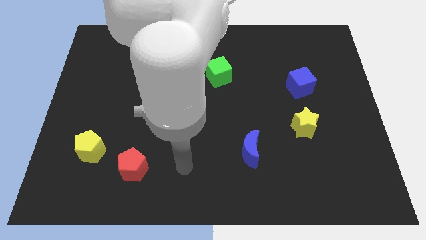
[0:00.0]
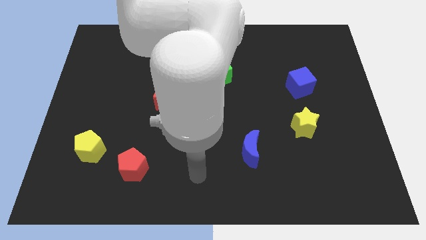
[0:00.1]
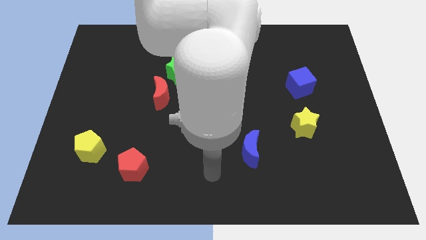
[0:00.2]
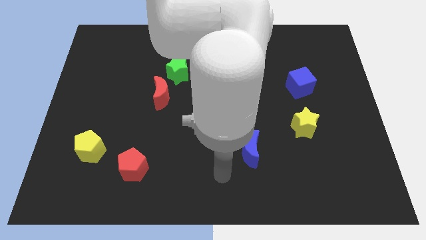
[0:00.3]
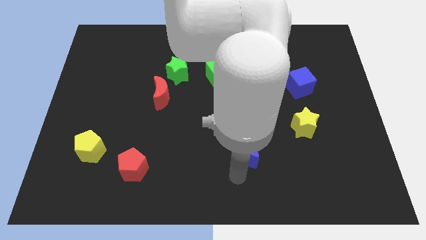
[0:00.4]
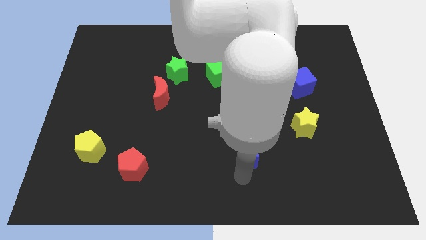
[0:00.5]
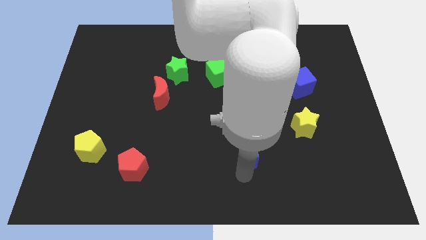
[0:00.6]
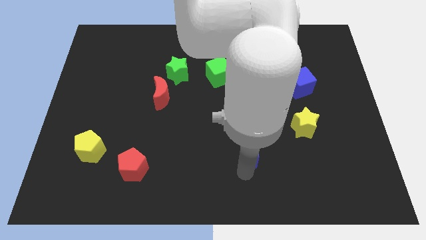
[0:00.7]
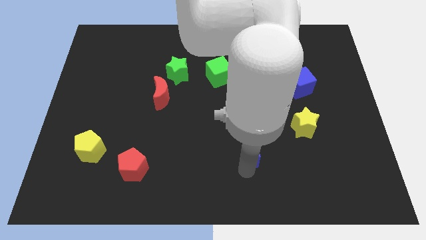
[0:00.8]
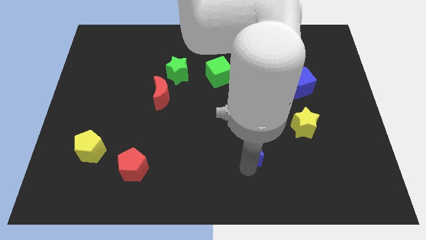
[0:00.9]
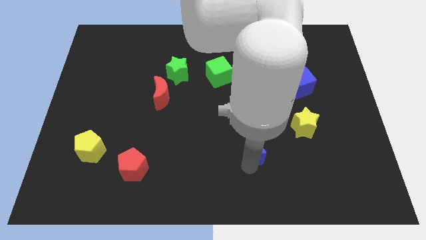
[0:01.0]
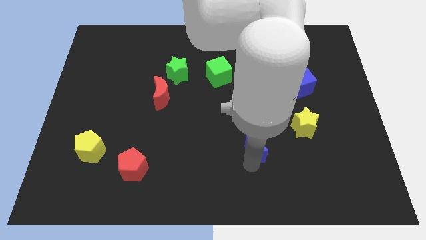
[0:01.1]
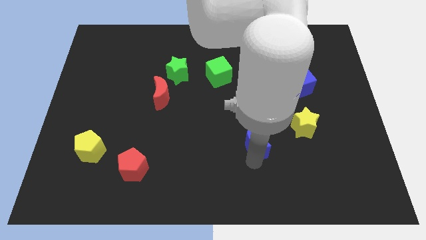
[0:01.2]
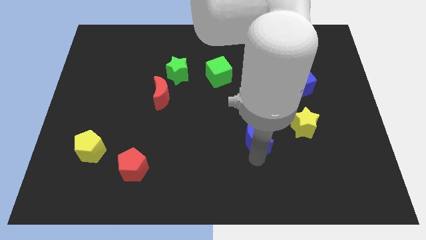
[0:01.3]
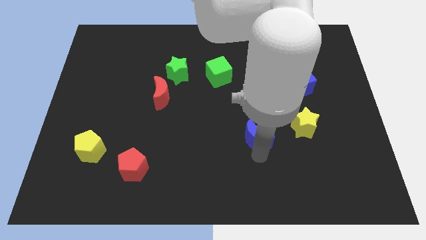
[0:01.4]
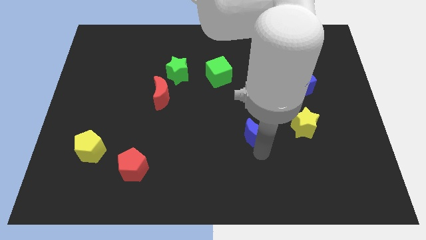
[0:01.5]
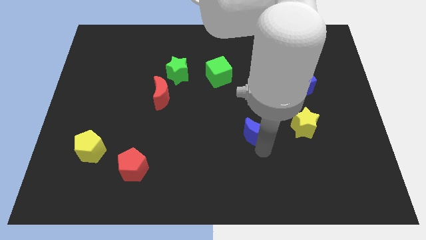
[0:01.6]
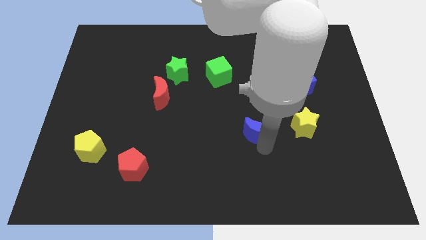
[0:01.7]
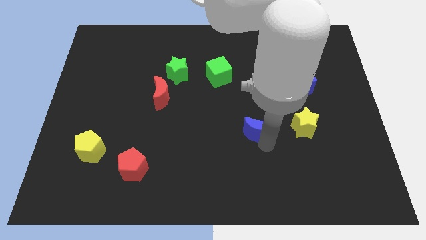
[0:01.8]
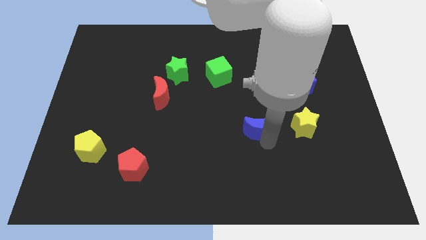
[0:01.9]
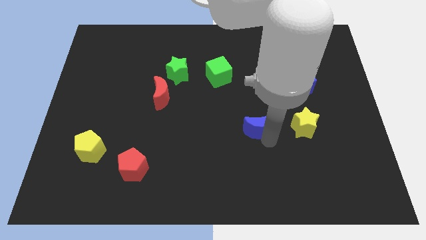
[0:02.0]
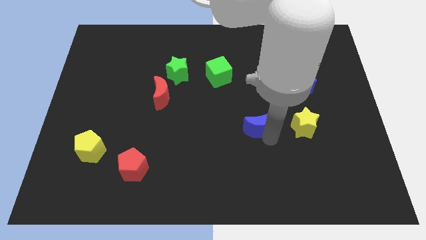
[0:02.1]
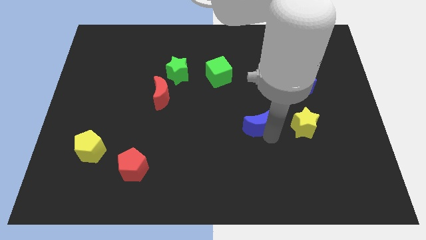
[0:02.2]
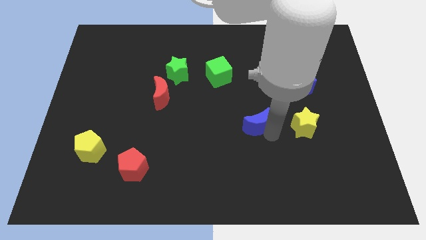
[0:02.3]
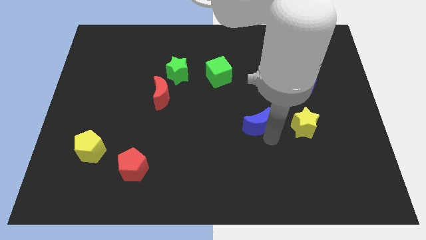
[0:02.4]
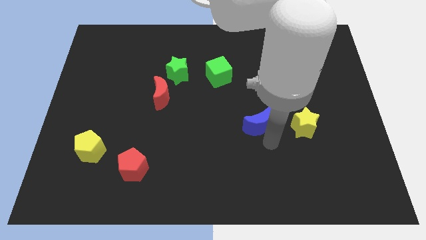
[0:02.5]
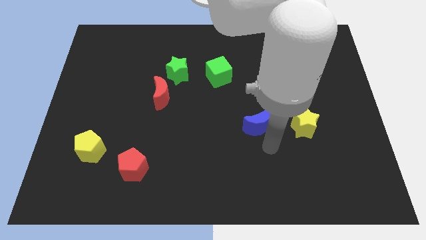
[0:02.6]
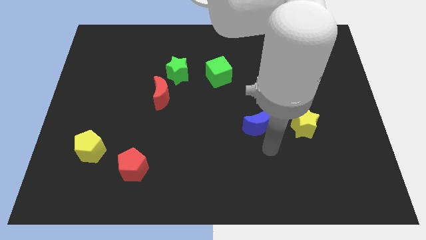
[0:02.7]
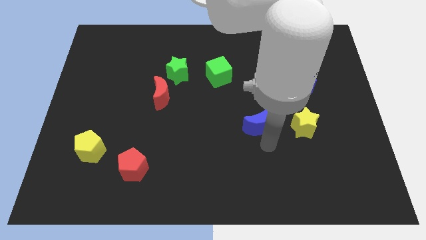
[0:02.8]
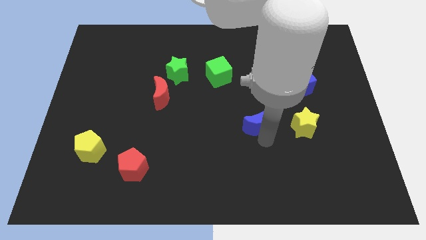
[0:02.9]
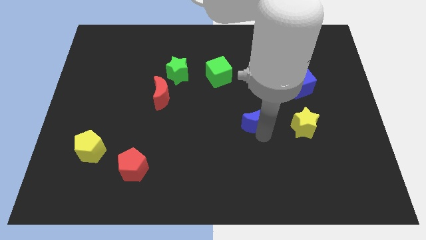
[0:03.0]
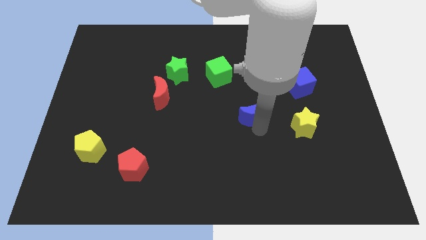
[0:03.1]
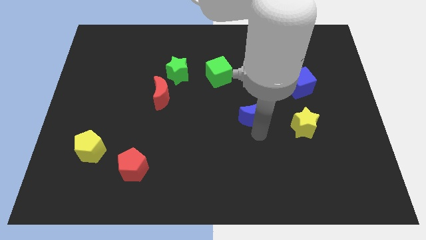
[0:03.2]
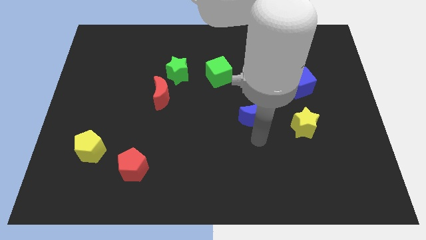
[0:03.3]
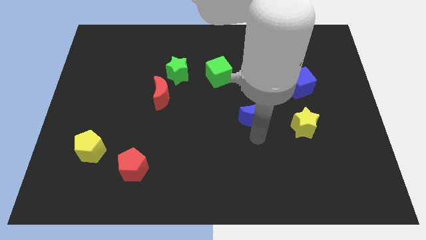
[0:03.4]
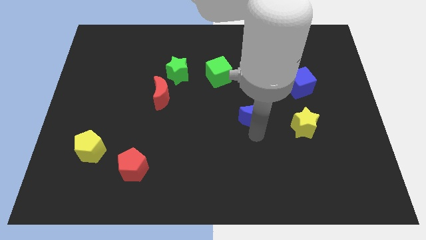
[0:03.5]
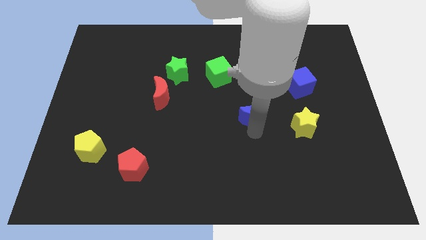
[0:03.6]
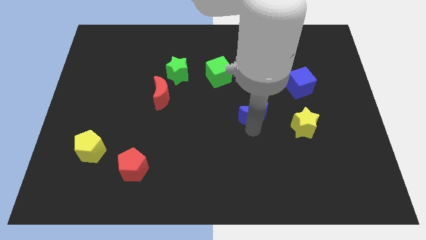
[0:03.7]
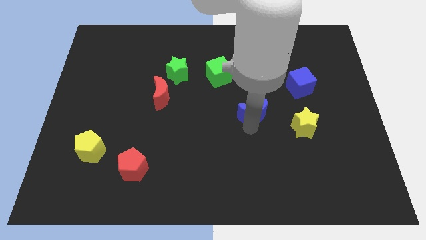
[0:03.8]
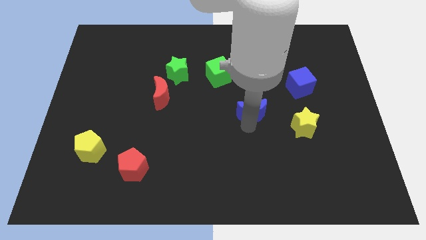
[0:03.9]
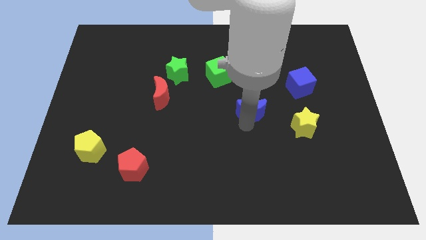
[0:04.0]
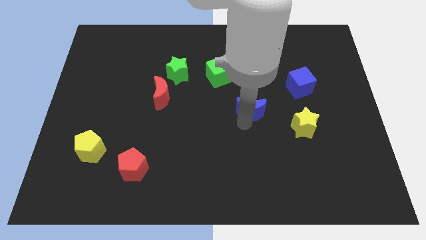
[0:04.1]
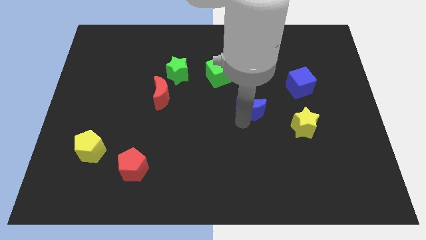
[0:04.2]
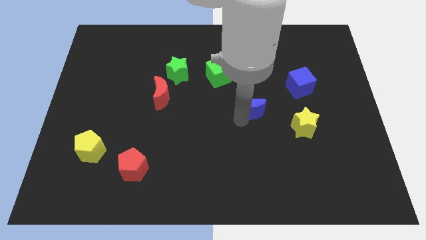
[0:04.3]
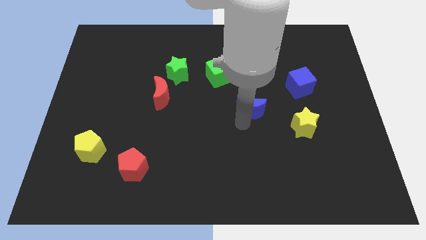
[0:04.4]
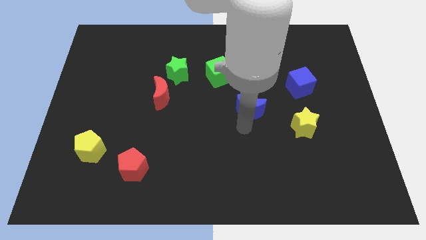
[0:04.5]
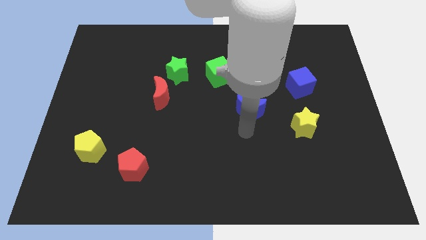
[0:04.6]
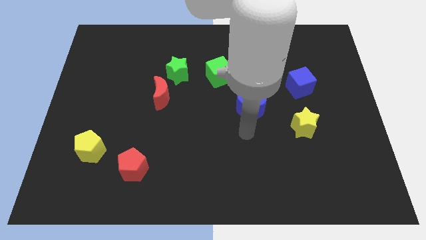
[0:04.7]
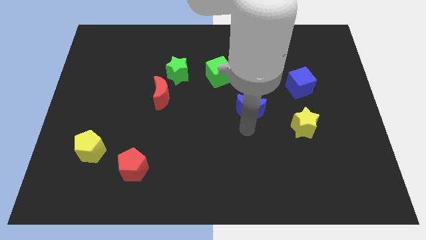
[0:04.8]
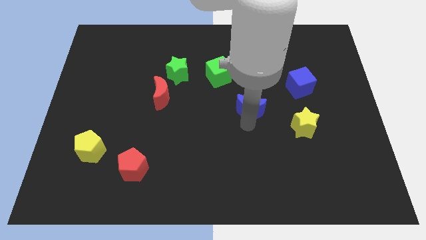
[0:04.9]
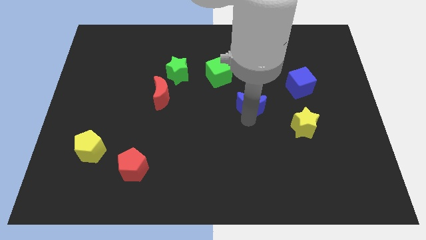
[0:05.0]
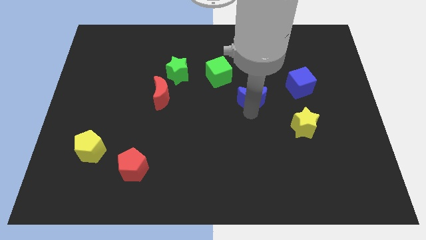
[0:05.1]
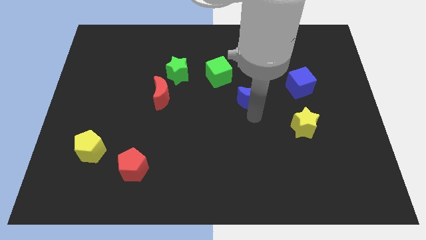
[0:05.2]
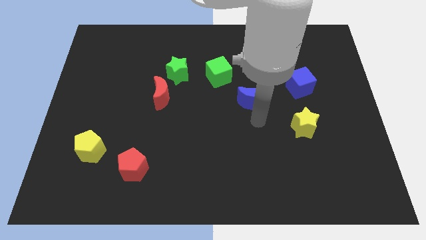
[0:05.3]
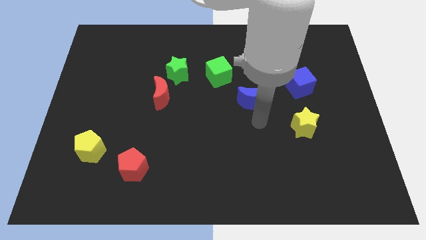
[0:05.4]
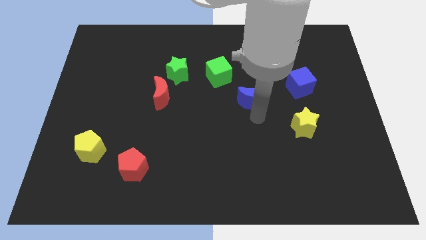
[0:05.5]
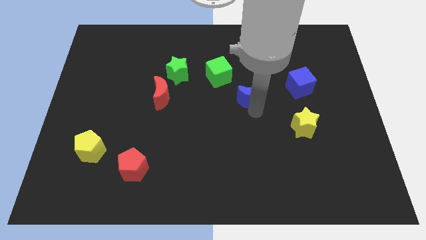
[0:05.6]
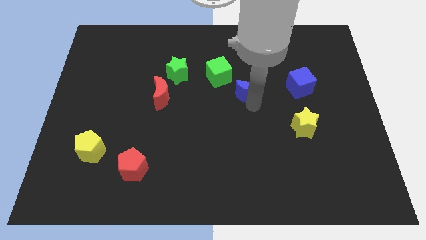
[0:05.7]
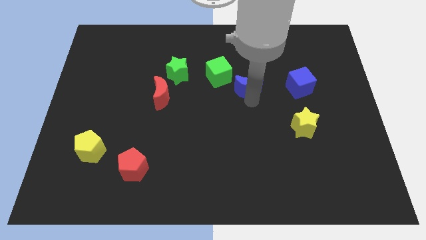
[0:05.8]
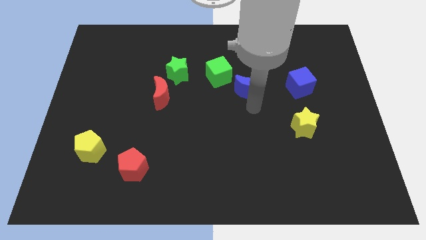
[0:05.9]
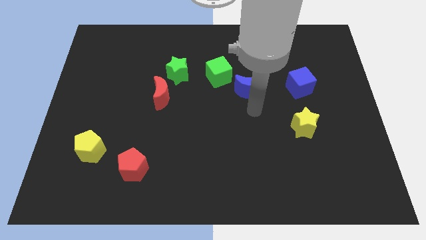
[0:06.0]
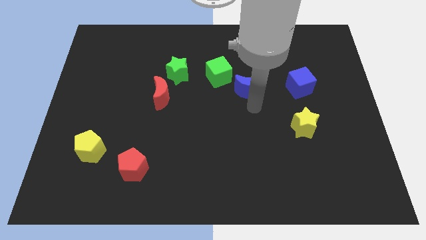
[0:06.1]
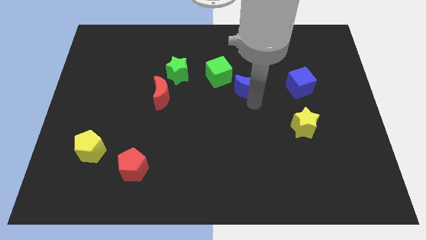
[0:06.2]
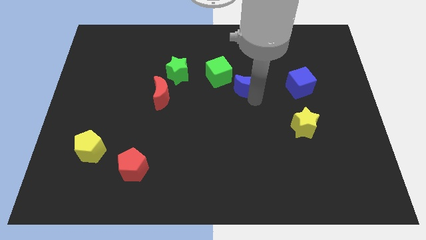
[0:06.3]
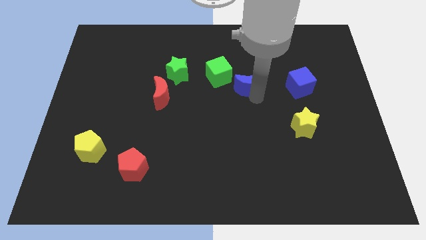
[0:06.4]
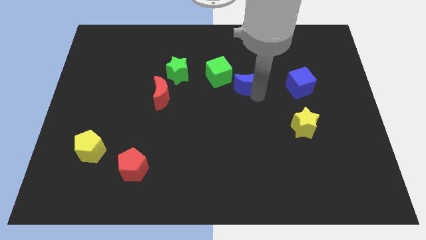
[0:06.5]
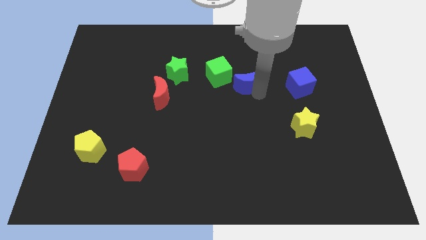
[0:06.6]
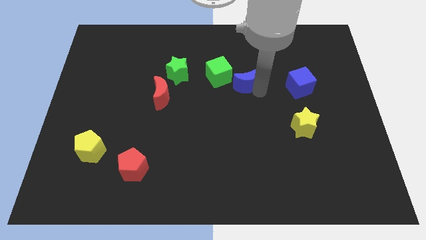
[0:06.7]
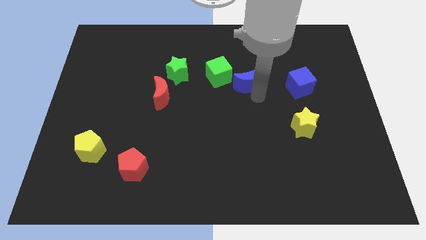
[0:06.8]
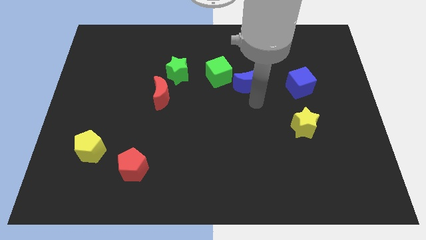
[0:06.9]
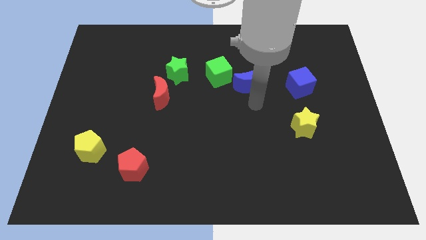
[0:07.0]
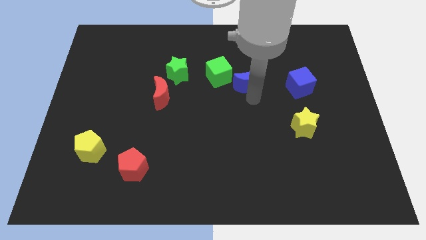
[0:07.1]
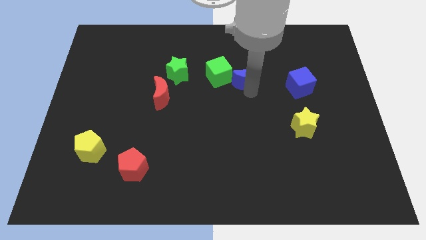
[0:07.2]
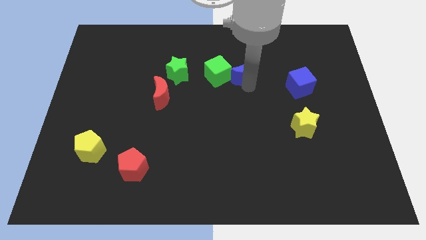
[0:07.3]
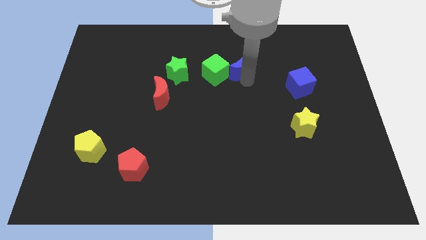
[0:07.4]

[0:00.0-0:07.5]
slide the blue moon diagonally up and to the right of the green cube
